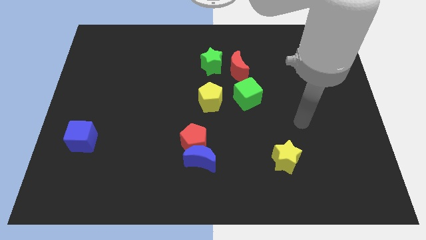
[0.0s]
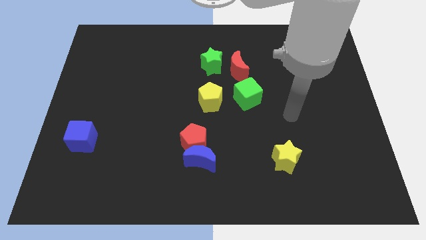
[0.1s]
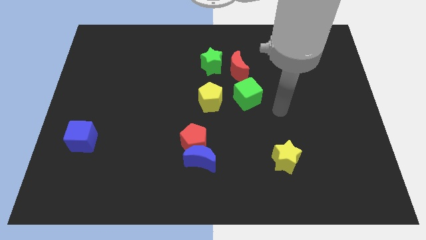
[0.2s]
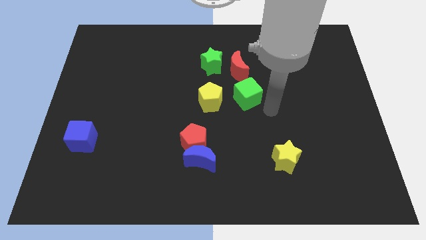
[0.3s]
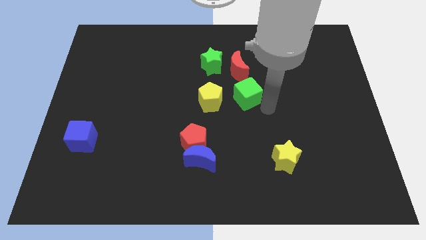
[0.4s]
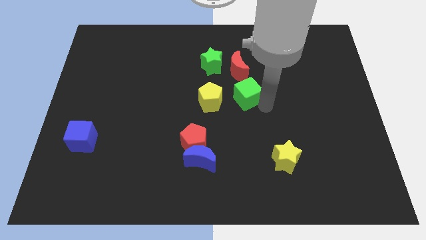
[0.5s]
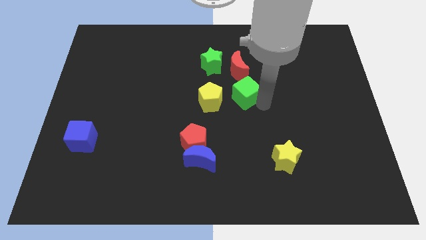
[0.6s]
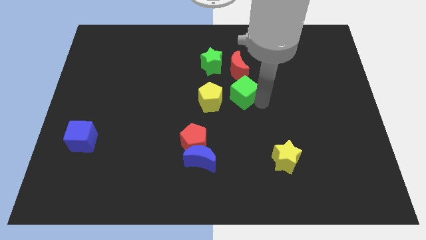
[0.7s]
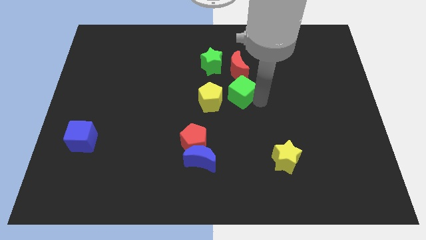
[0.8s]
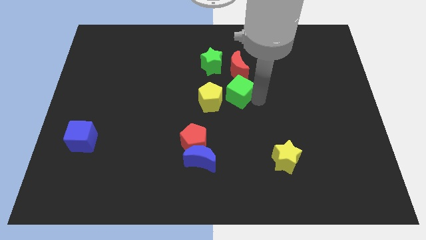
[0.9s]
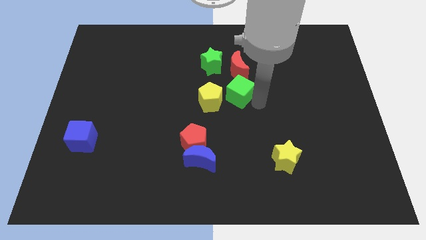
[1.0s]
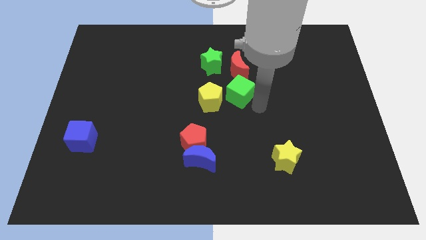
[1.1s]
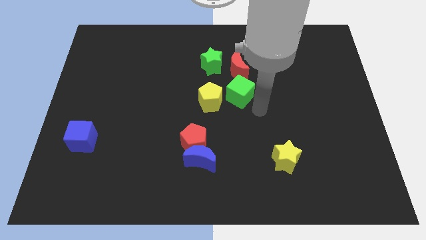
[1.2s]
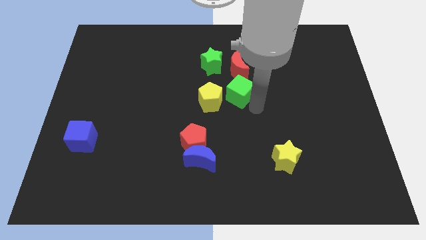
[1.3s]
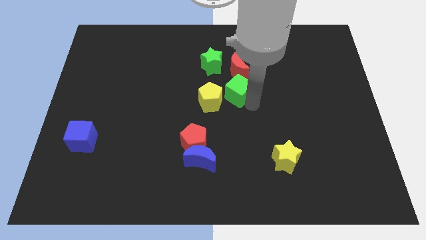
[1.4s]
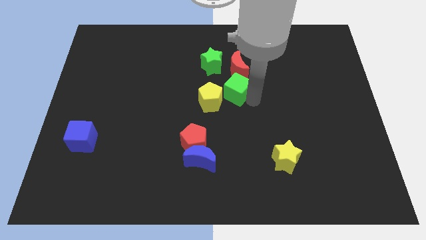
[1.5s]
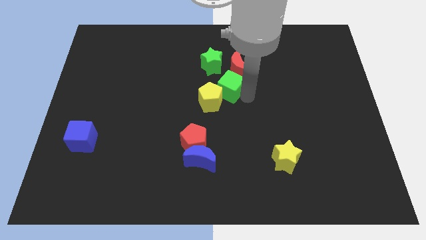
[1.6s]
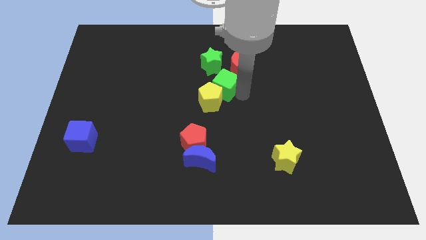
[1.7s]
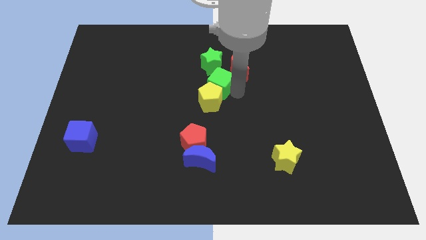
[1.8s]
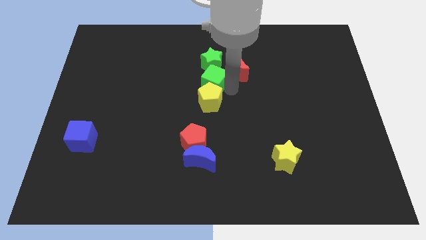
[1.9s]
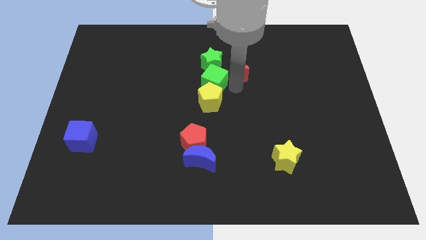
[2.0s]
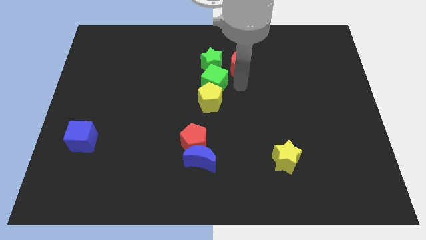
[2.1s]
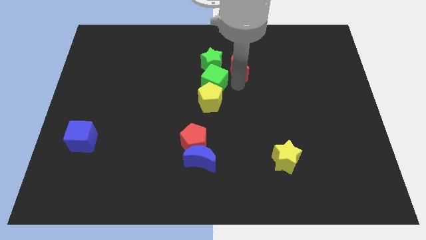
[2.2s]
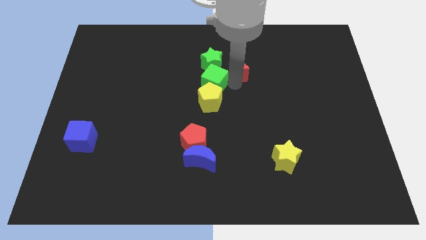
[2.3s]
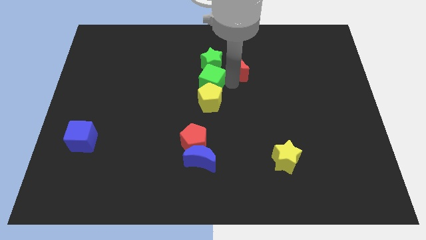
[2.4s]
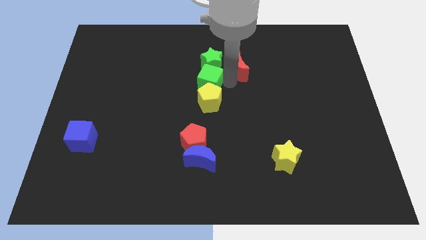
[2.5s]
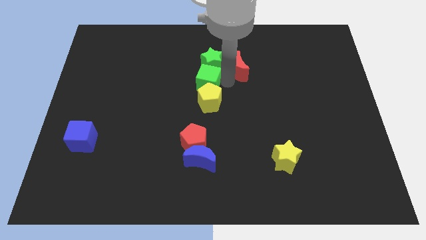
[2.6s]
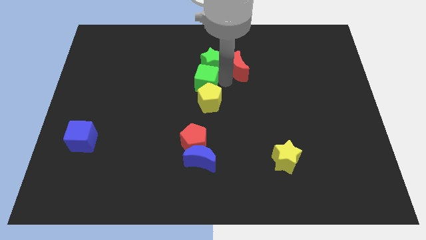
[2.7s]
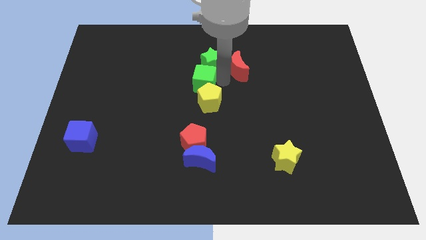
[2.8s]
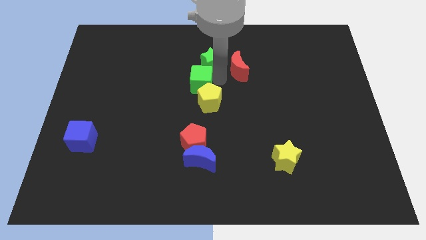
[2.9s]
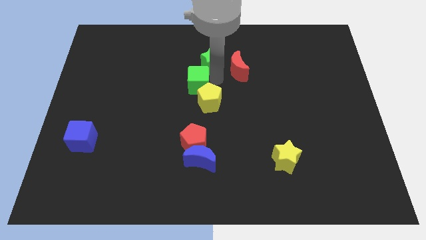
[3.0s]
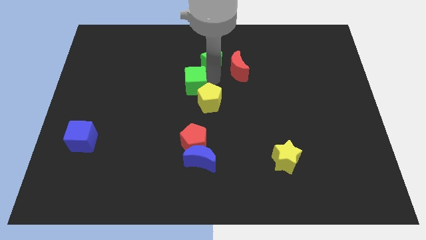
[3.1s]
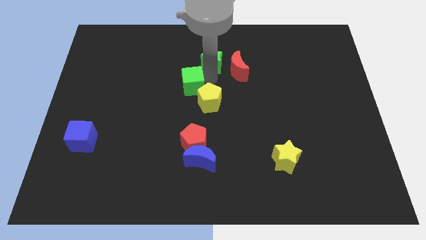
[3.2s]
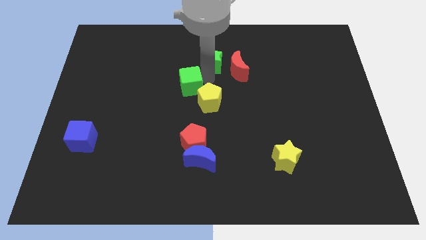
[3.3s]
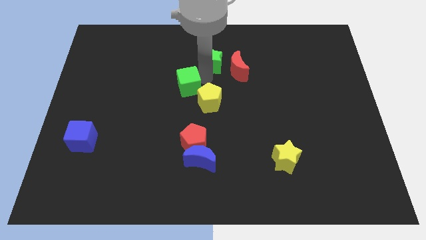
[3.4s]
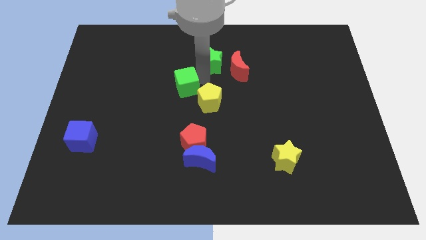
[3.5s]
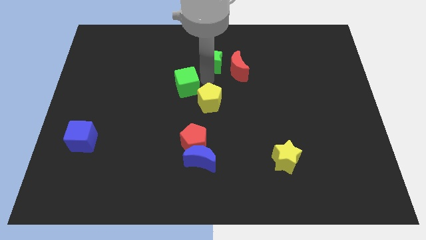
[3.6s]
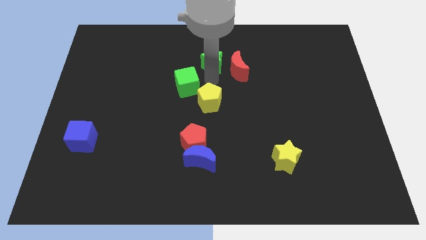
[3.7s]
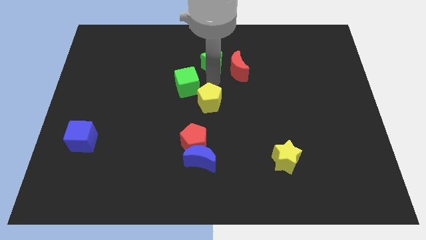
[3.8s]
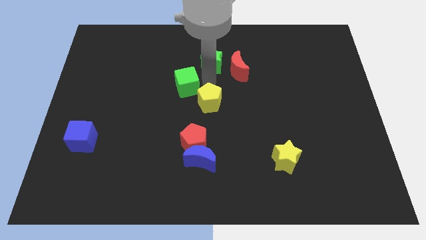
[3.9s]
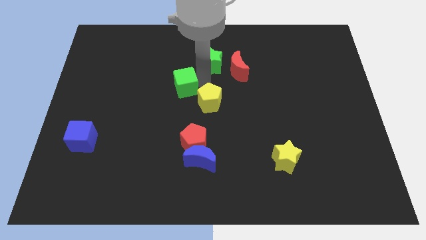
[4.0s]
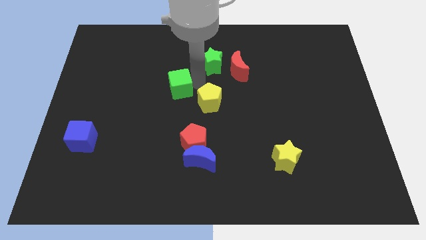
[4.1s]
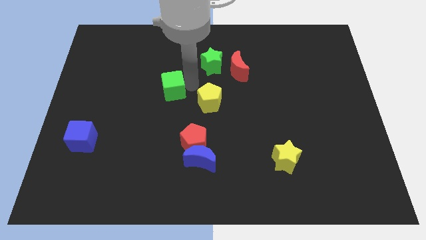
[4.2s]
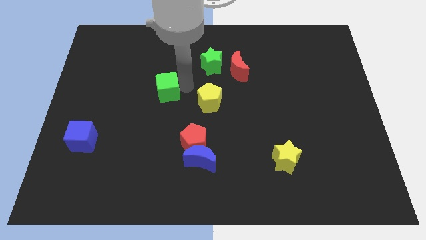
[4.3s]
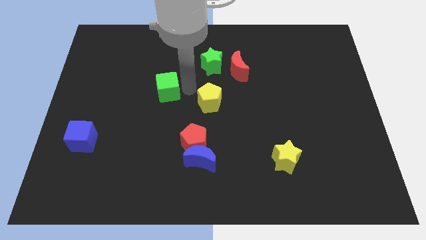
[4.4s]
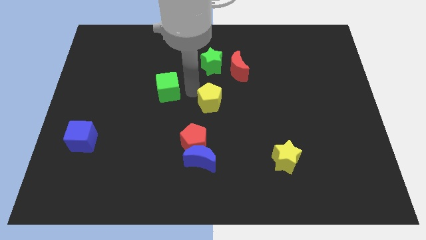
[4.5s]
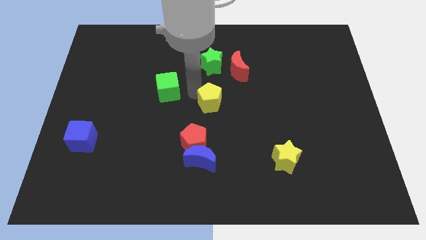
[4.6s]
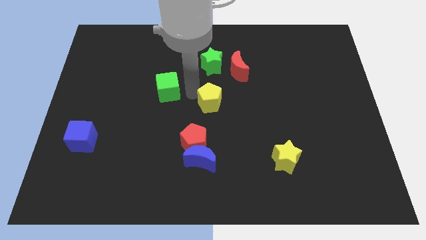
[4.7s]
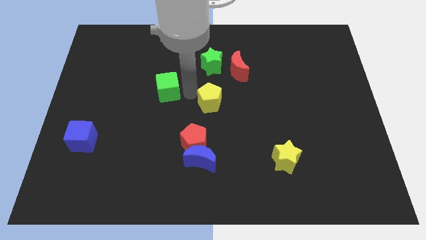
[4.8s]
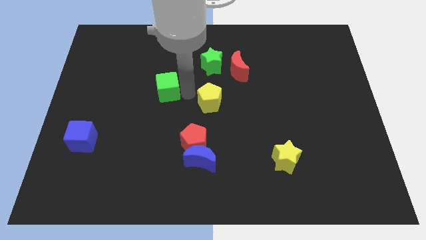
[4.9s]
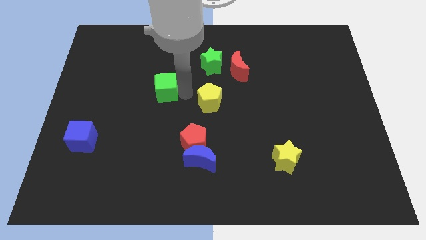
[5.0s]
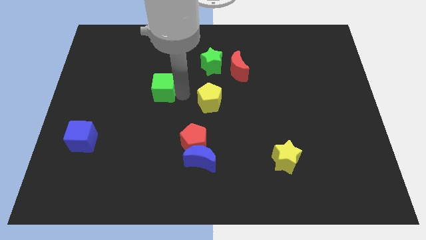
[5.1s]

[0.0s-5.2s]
slide the green cube to the left

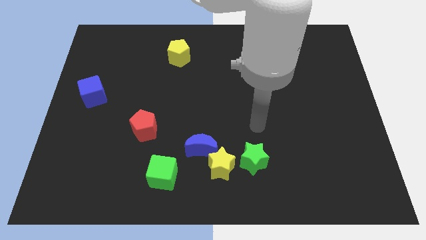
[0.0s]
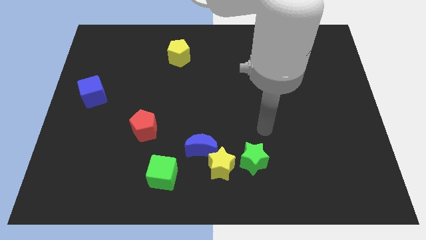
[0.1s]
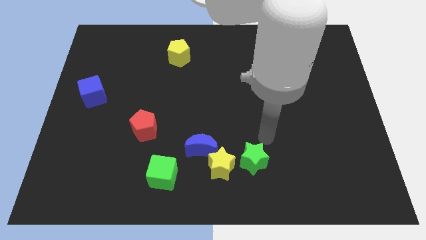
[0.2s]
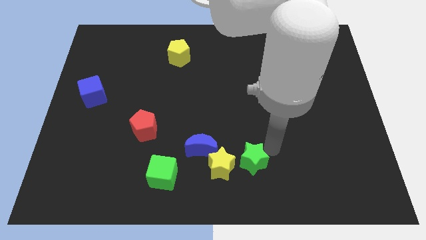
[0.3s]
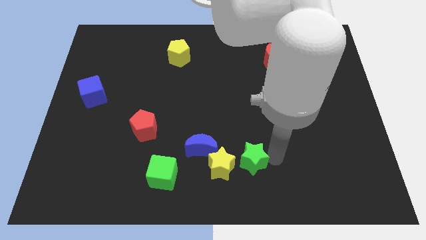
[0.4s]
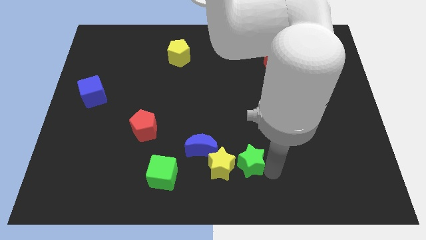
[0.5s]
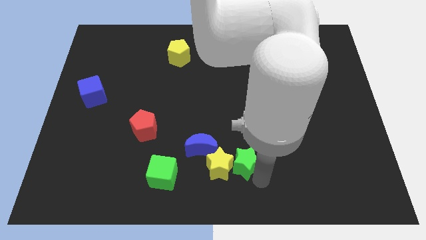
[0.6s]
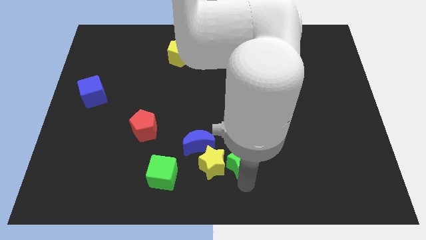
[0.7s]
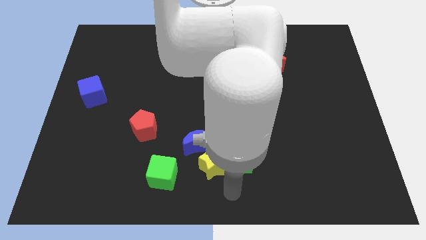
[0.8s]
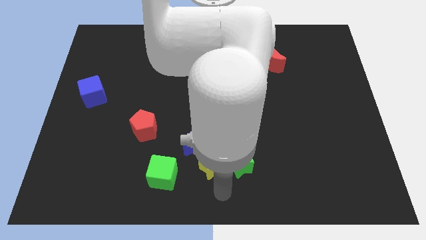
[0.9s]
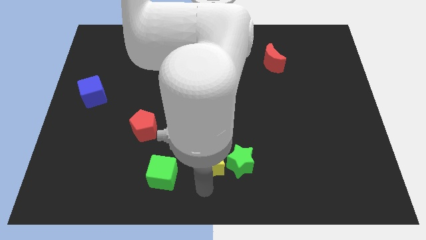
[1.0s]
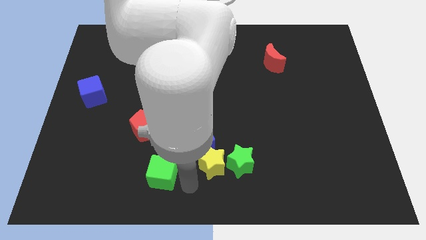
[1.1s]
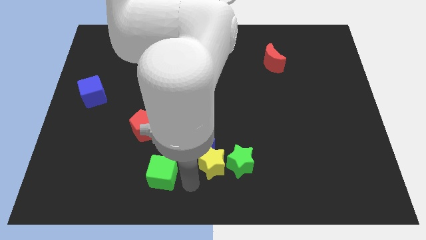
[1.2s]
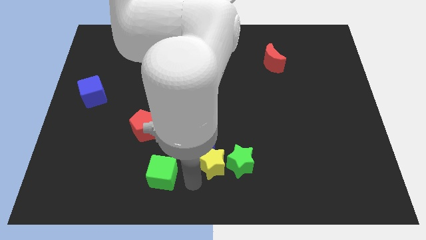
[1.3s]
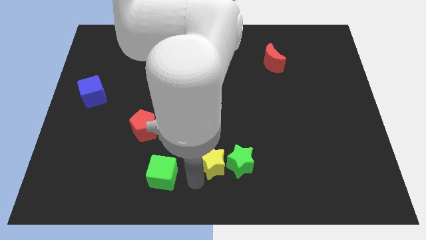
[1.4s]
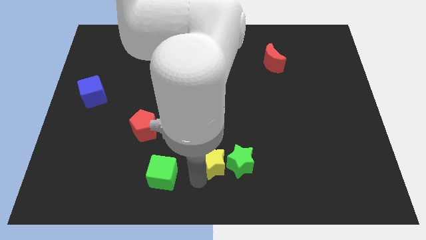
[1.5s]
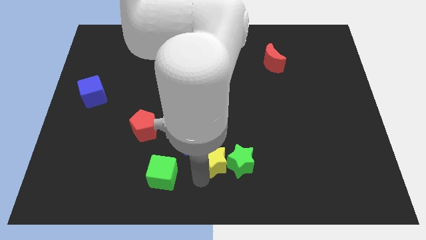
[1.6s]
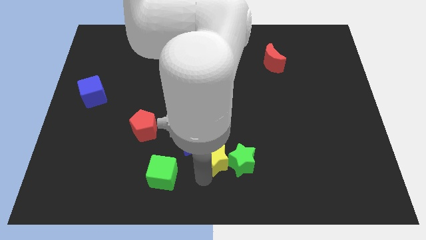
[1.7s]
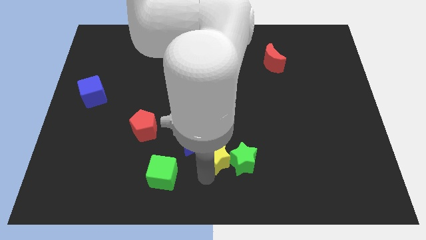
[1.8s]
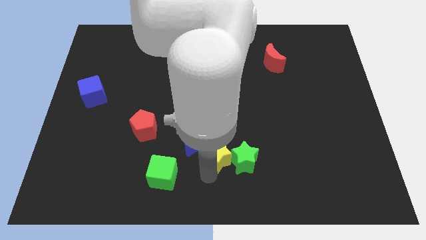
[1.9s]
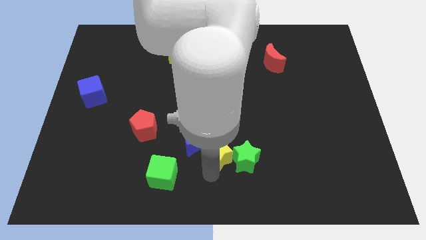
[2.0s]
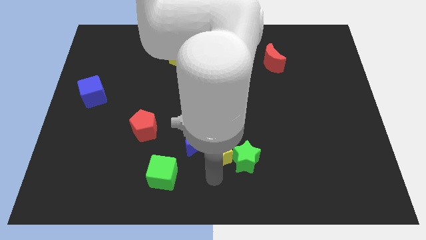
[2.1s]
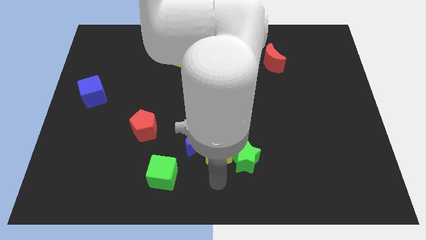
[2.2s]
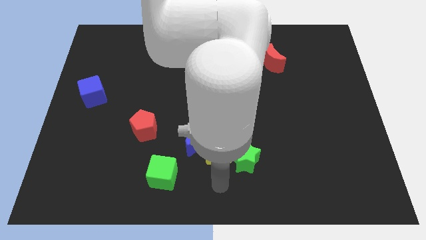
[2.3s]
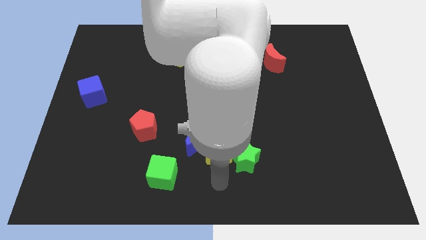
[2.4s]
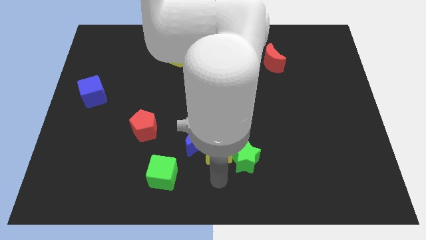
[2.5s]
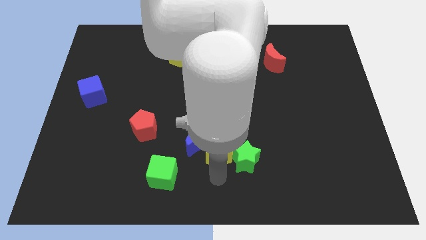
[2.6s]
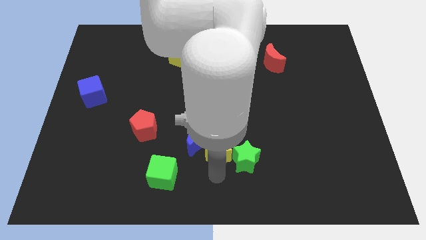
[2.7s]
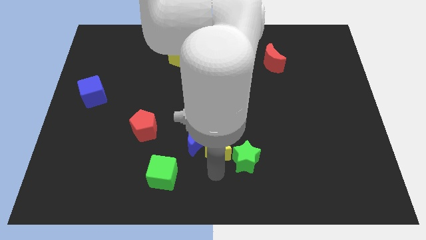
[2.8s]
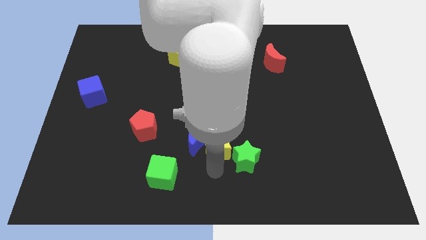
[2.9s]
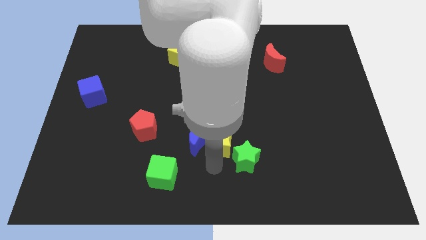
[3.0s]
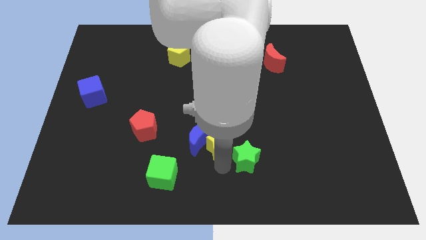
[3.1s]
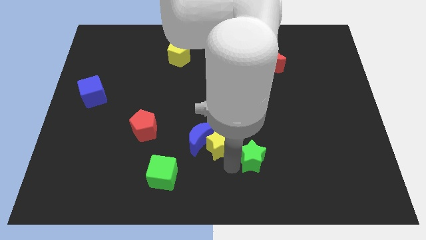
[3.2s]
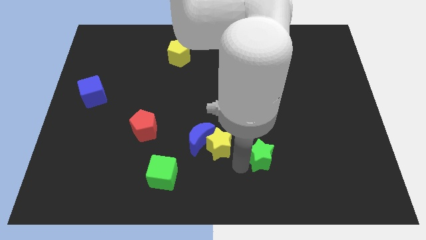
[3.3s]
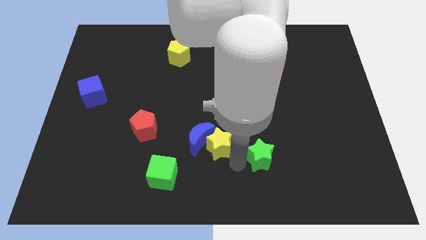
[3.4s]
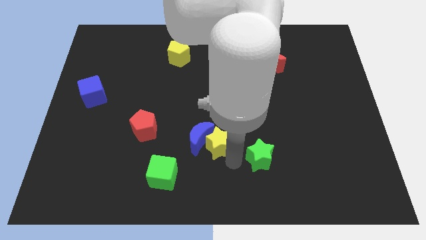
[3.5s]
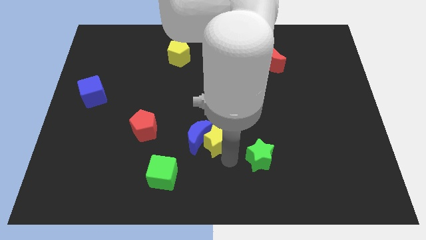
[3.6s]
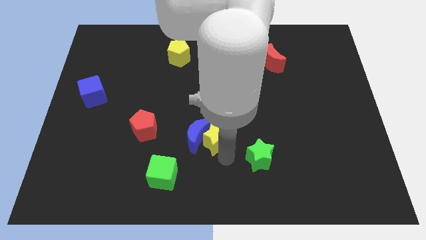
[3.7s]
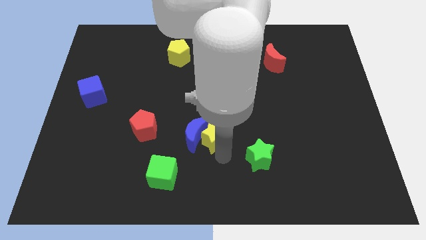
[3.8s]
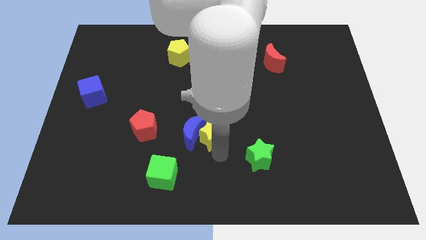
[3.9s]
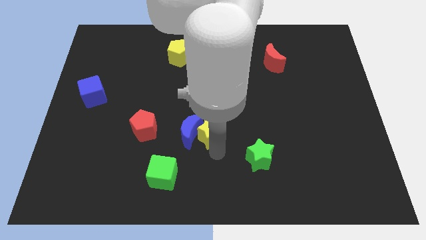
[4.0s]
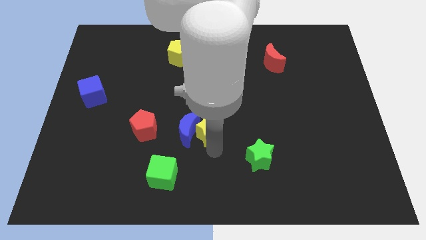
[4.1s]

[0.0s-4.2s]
slightly slide the yellow star up and then left
